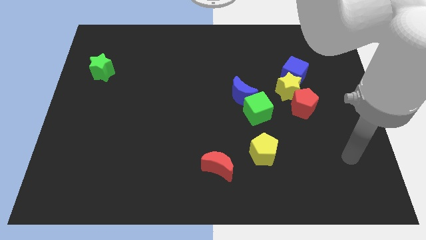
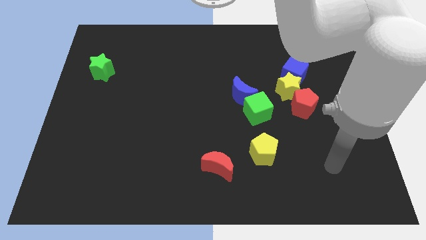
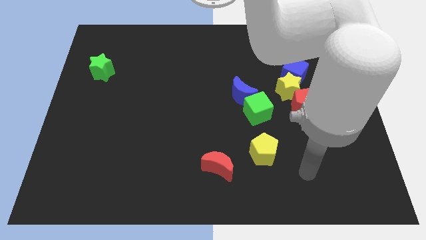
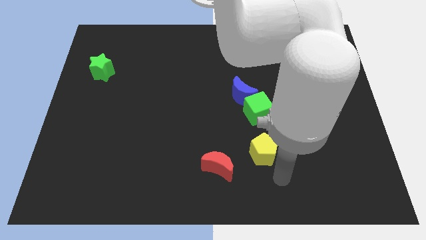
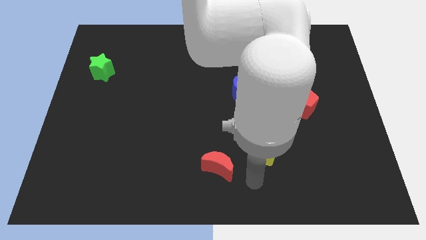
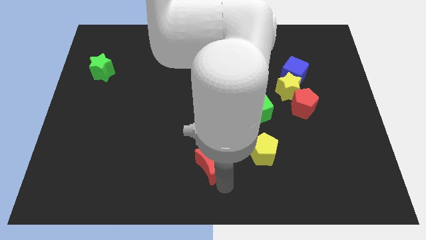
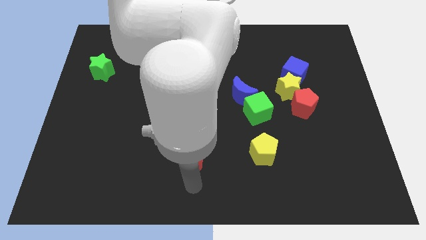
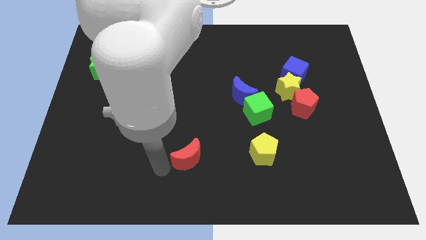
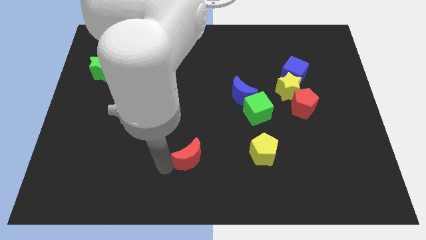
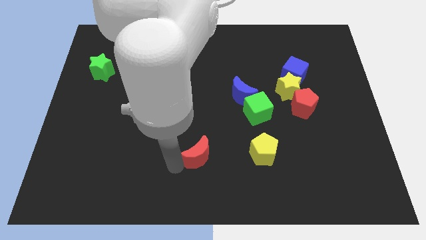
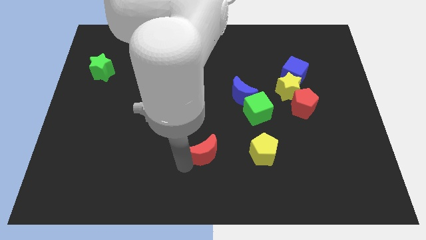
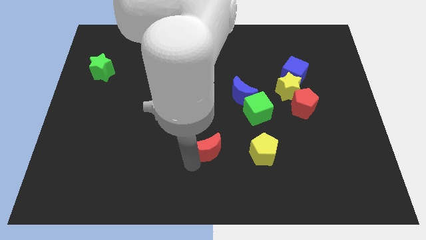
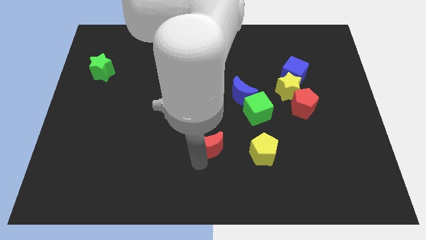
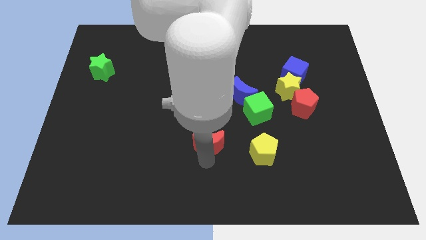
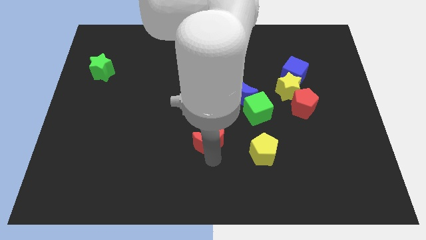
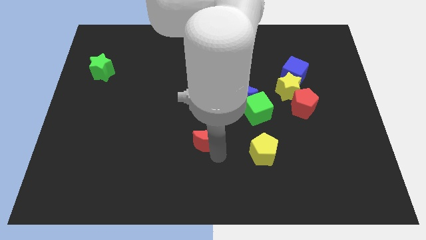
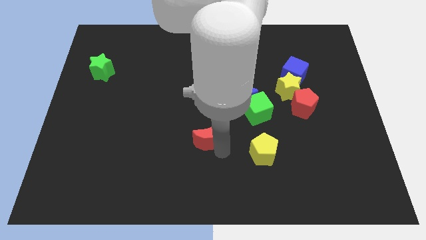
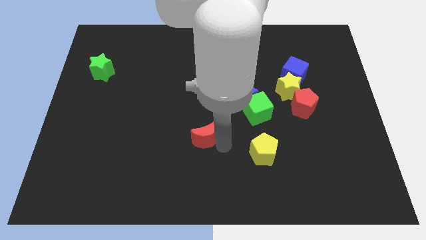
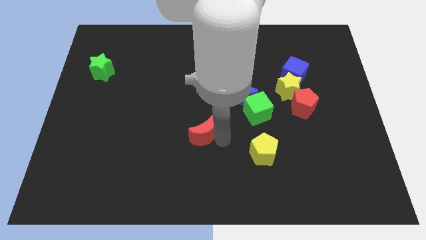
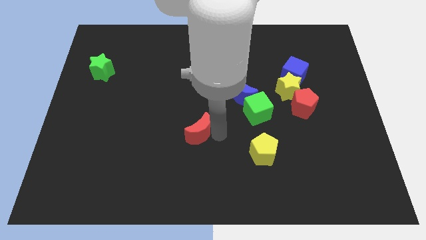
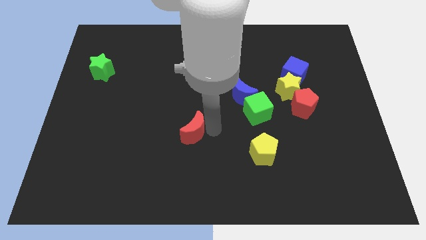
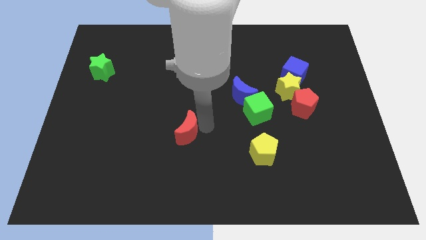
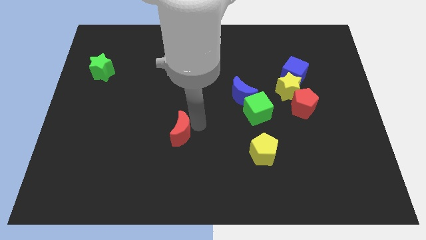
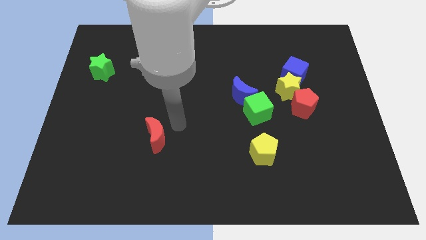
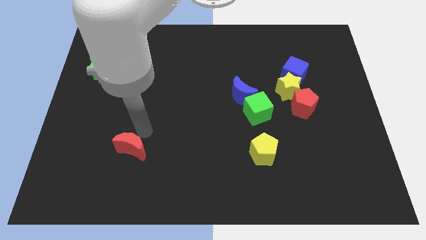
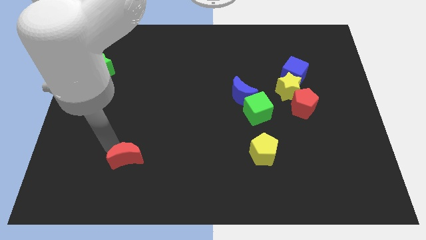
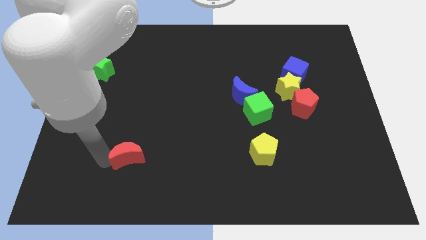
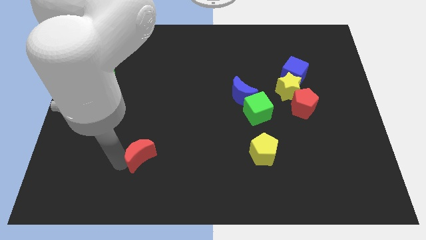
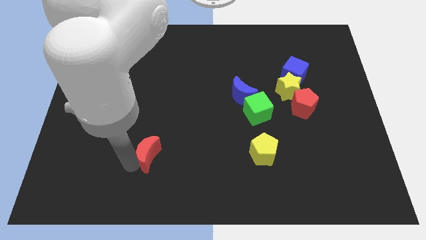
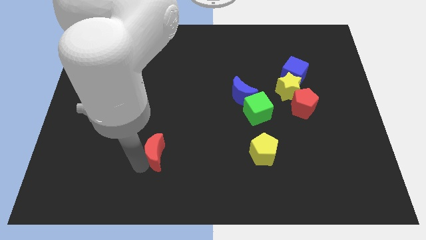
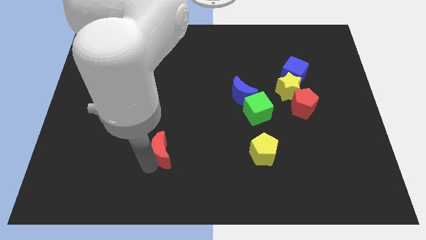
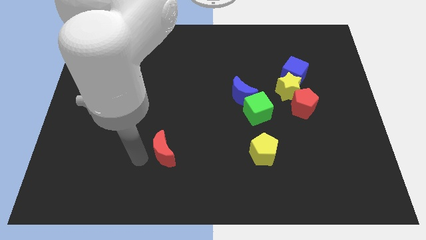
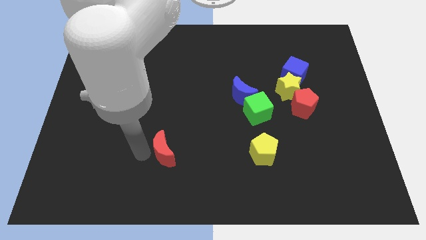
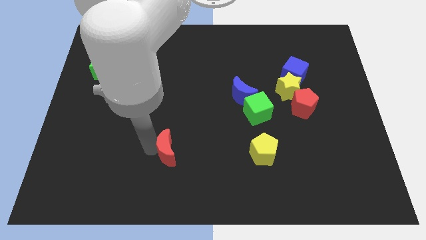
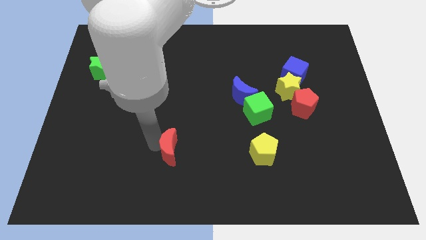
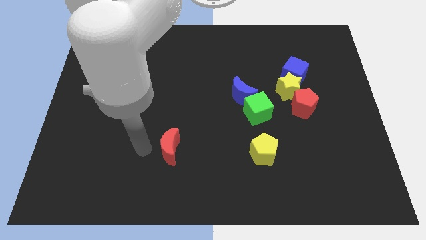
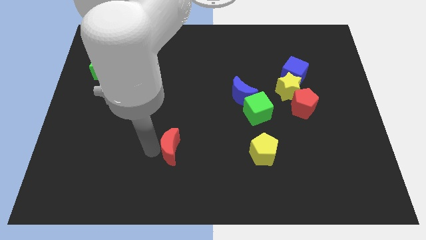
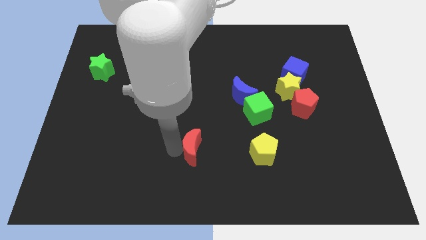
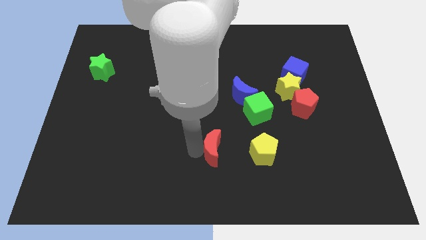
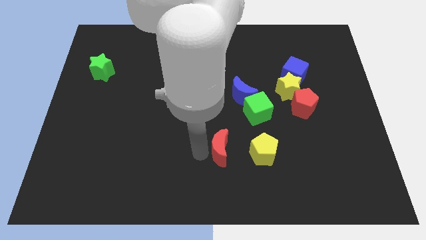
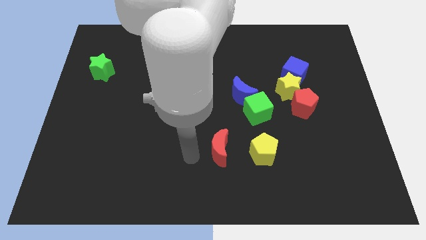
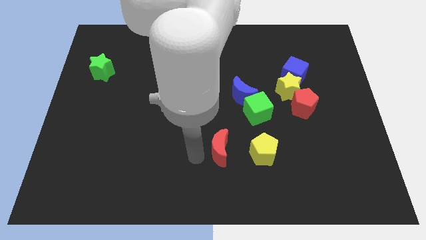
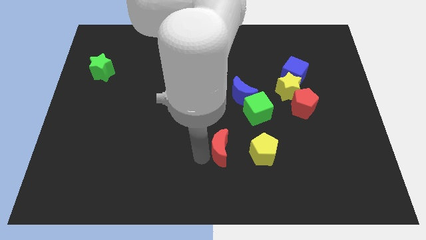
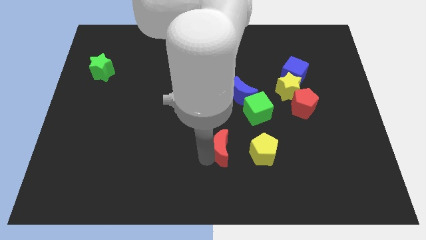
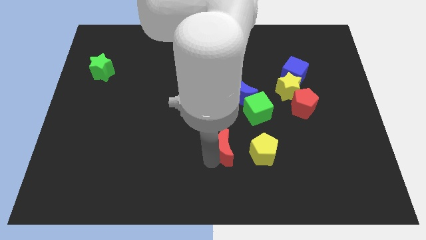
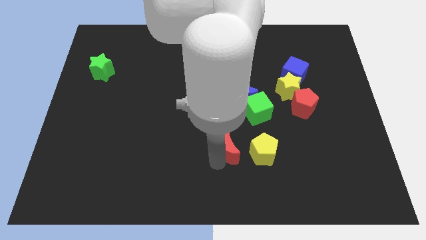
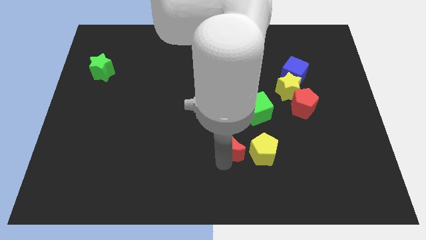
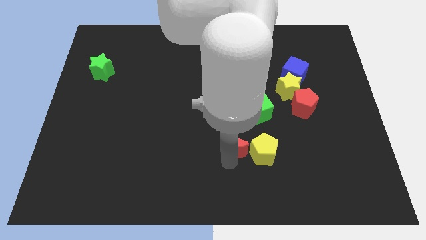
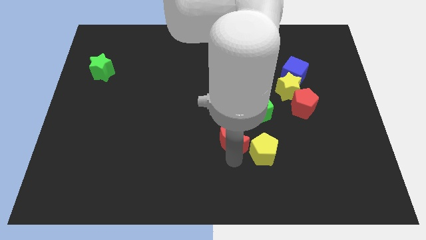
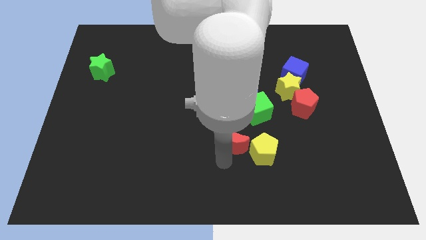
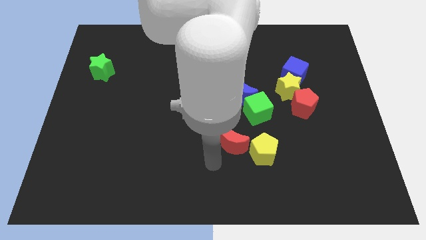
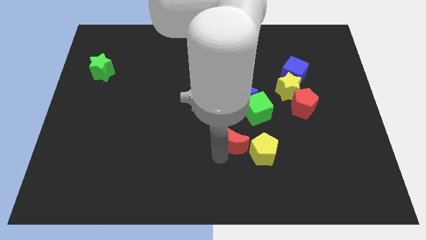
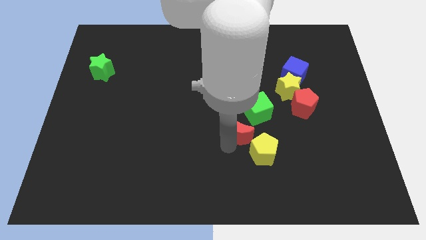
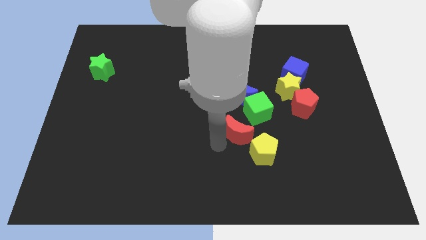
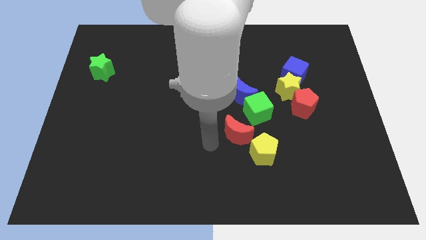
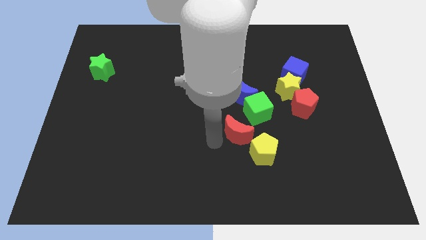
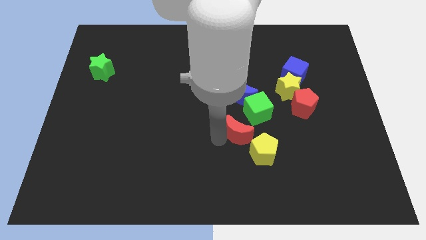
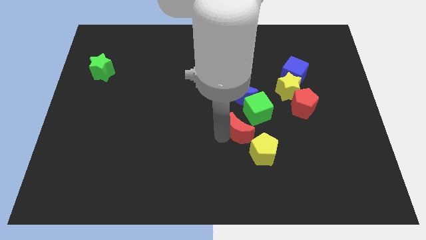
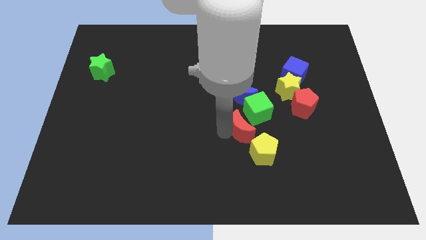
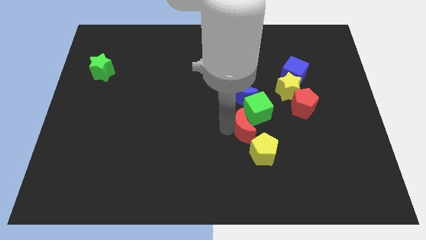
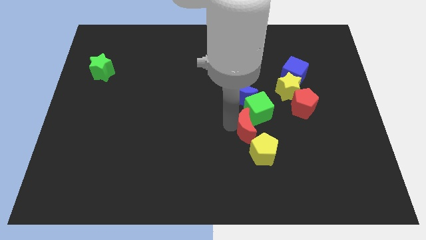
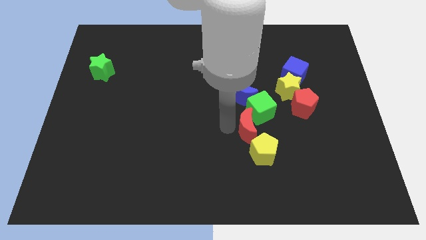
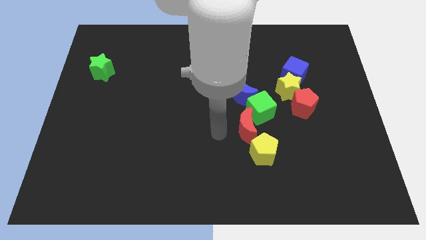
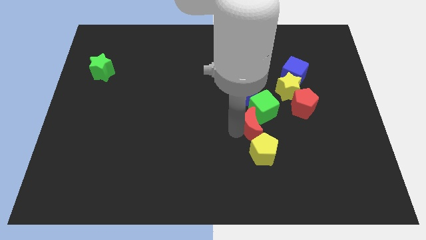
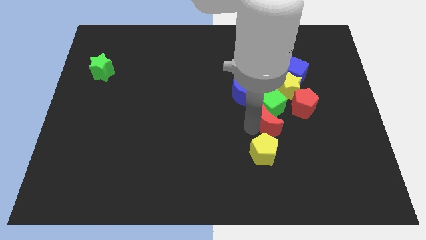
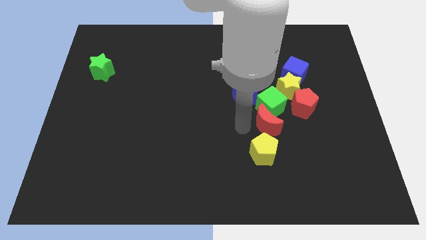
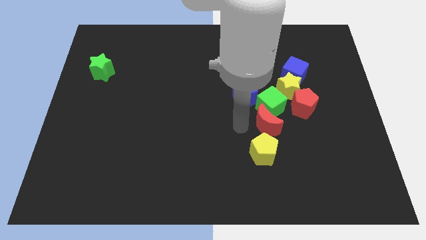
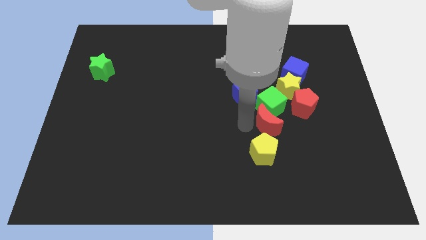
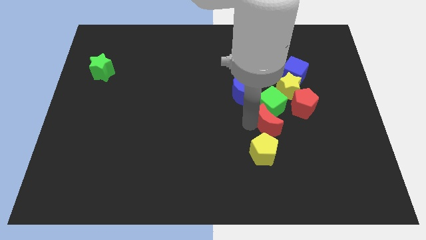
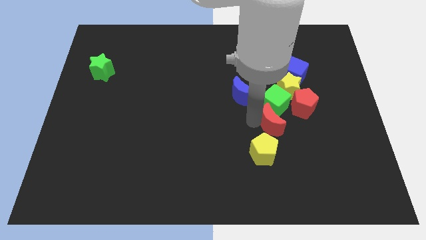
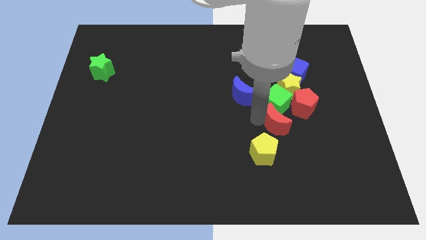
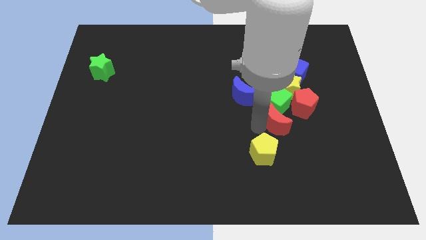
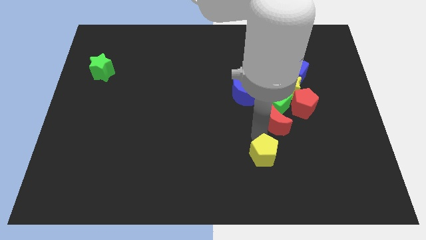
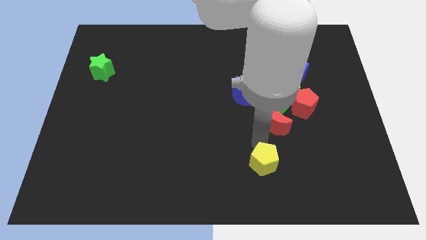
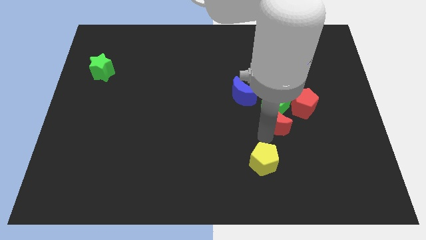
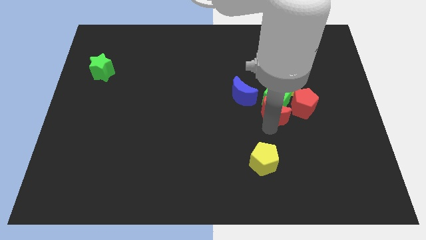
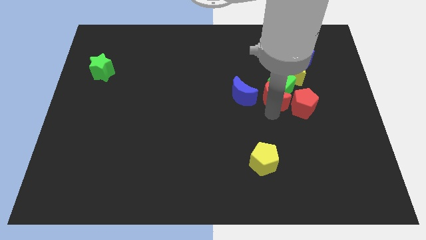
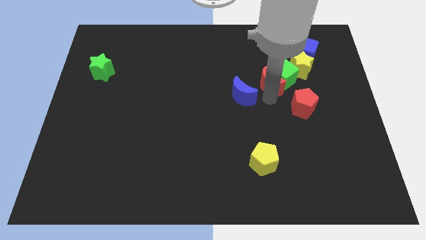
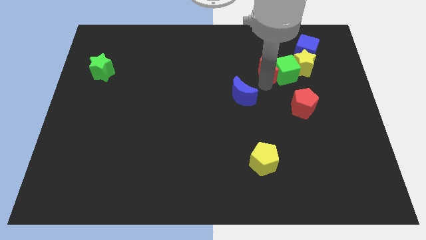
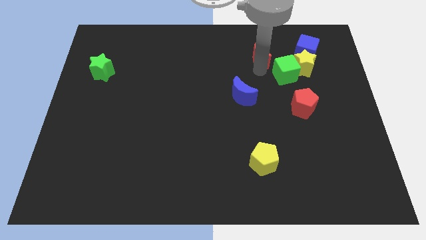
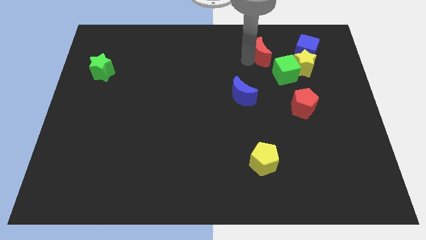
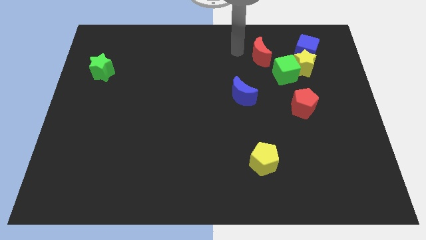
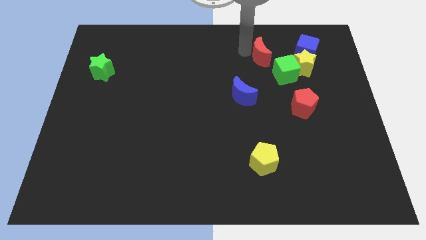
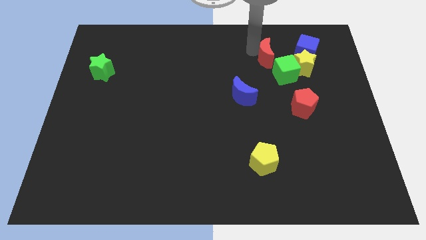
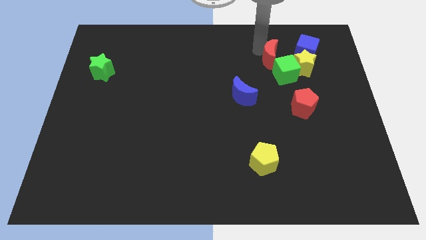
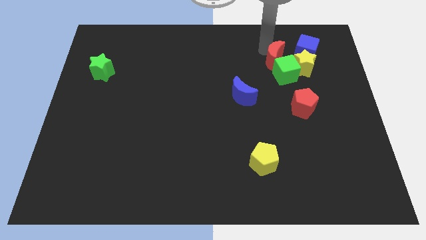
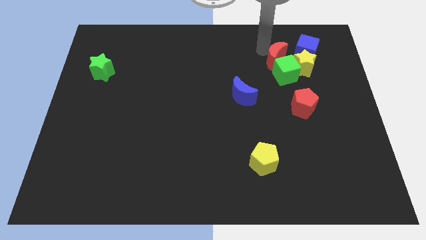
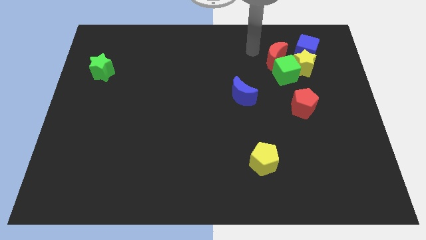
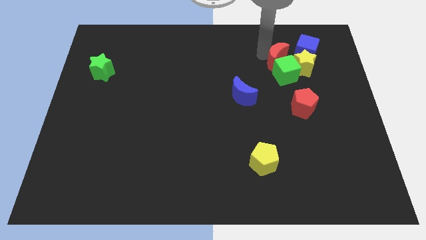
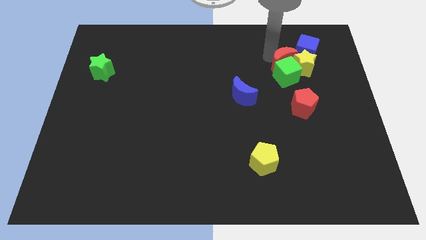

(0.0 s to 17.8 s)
put the red moon close to the yellow star
